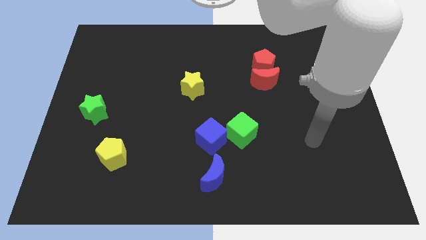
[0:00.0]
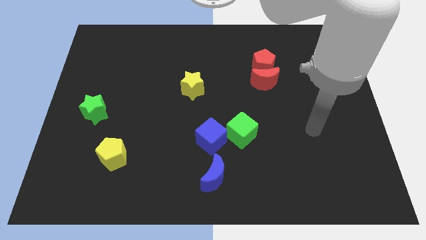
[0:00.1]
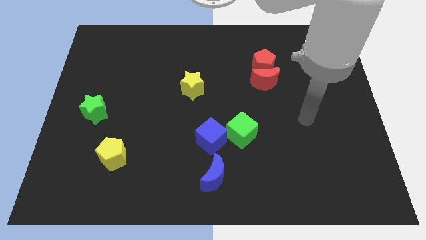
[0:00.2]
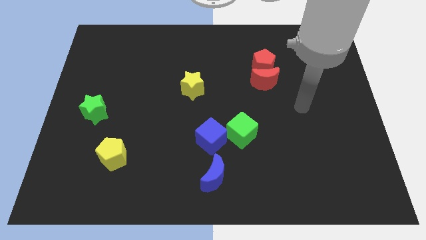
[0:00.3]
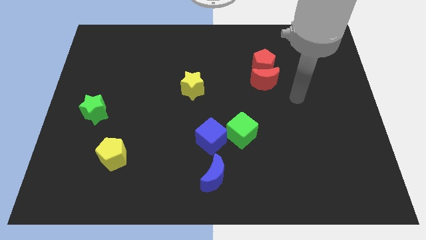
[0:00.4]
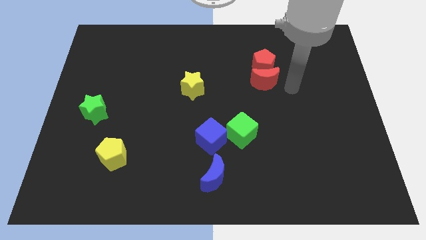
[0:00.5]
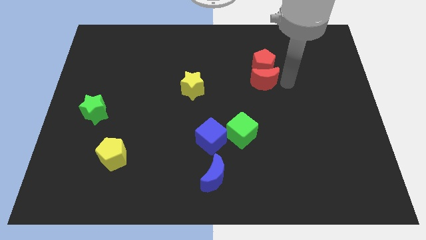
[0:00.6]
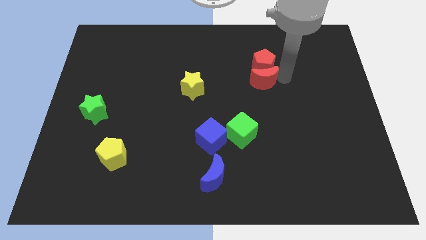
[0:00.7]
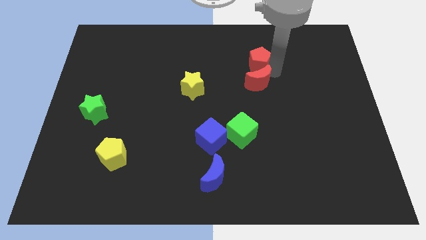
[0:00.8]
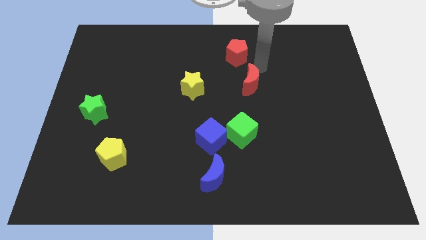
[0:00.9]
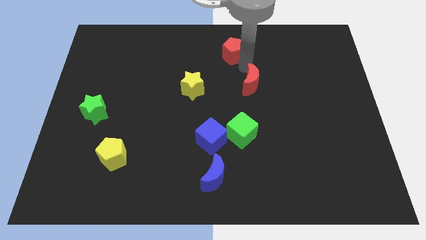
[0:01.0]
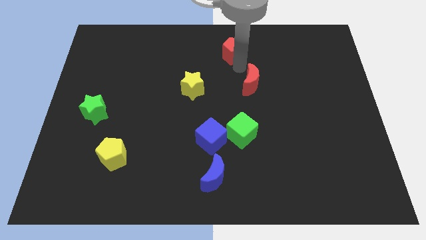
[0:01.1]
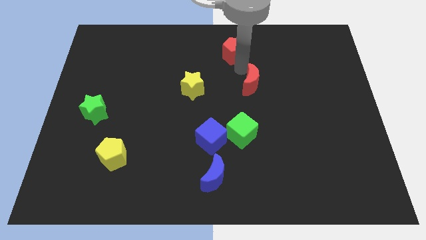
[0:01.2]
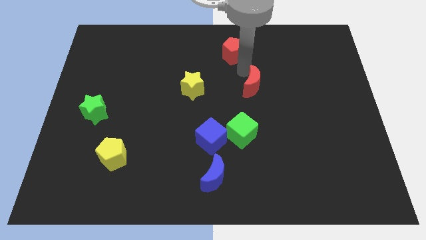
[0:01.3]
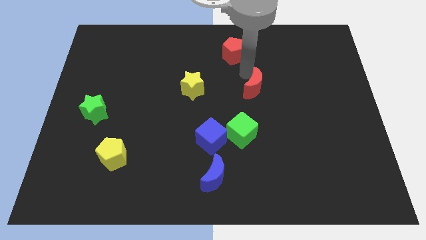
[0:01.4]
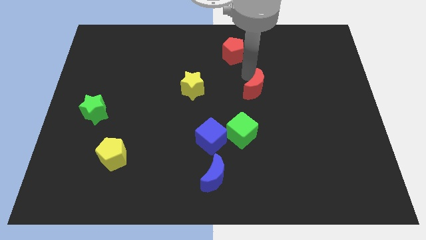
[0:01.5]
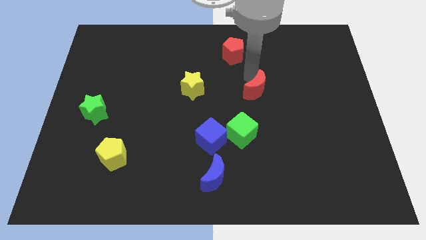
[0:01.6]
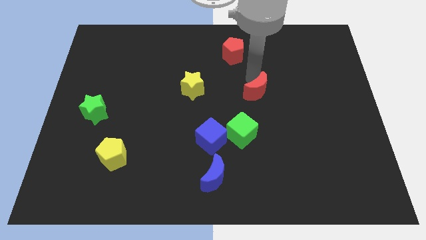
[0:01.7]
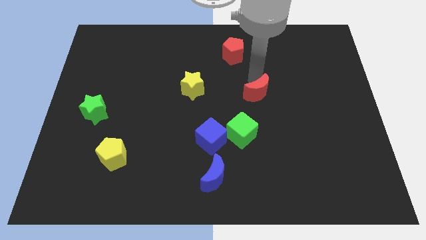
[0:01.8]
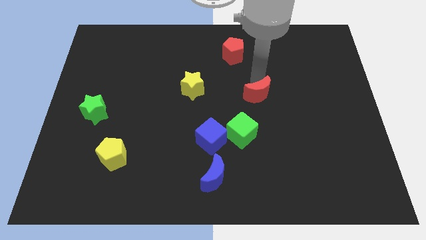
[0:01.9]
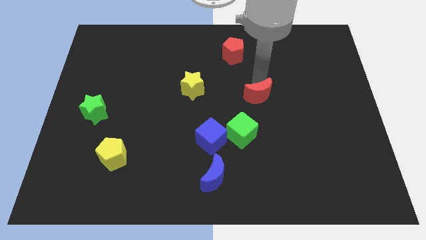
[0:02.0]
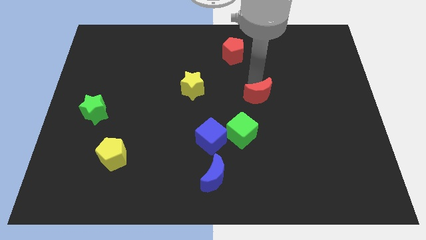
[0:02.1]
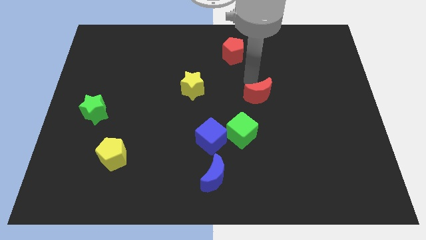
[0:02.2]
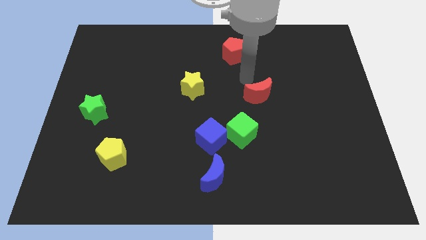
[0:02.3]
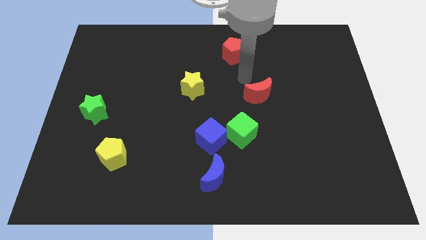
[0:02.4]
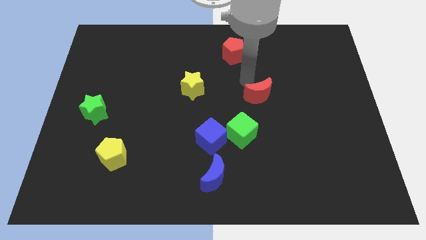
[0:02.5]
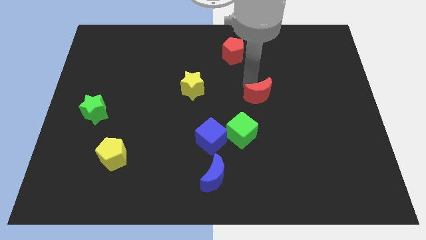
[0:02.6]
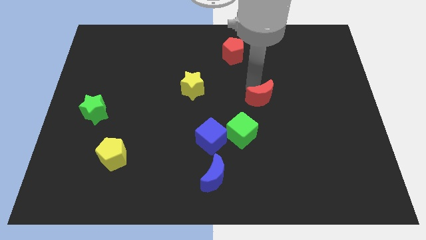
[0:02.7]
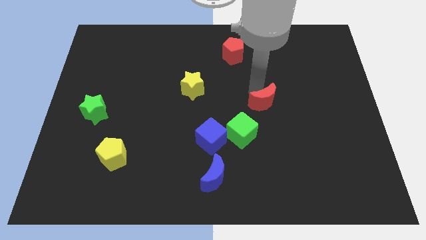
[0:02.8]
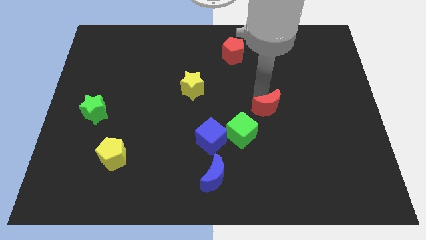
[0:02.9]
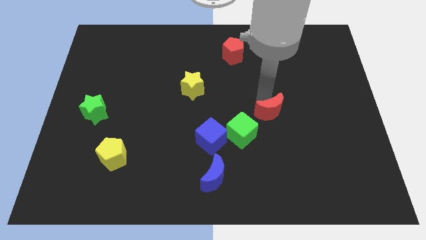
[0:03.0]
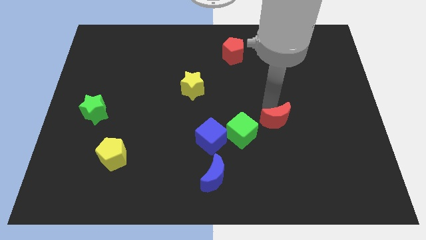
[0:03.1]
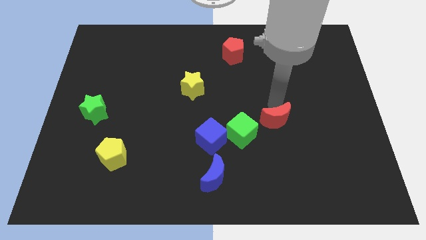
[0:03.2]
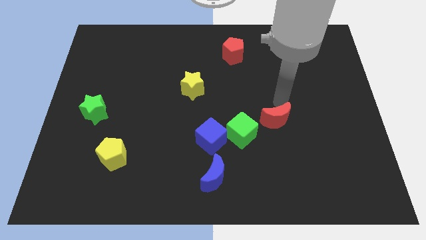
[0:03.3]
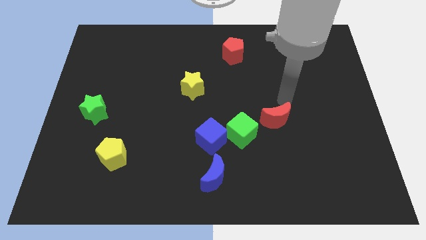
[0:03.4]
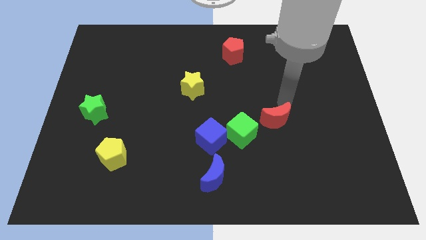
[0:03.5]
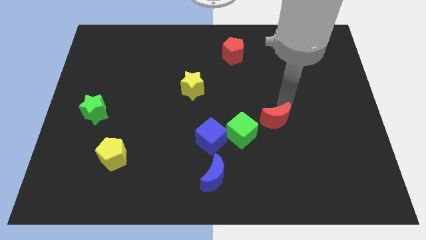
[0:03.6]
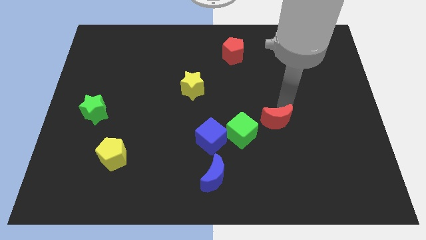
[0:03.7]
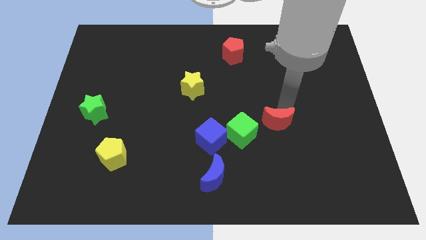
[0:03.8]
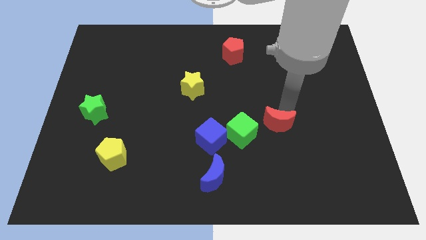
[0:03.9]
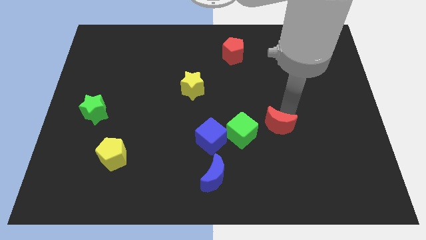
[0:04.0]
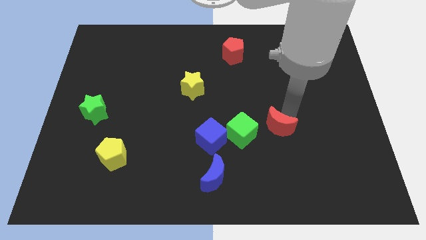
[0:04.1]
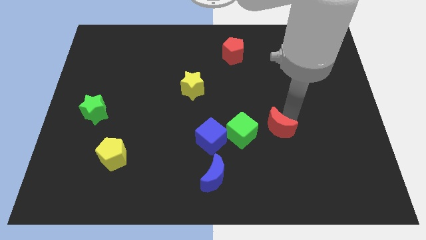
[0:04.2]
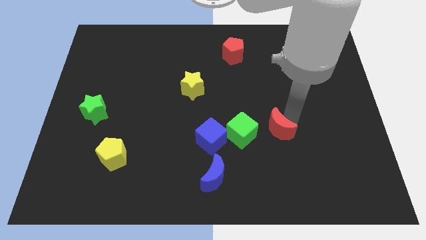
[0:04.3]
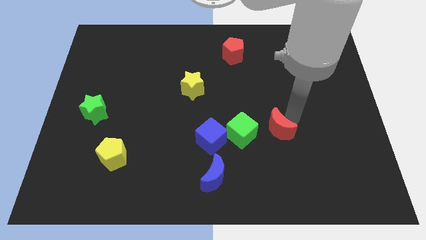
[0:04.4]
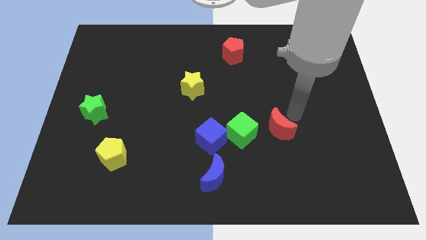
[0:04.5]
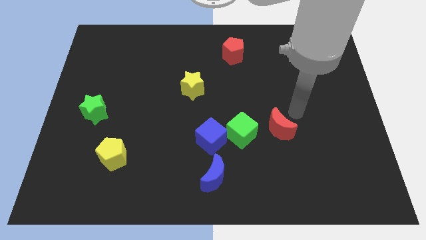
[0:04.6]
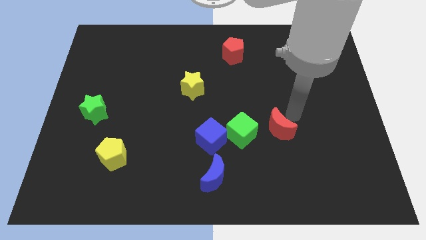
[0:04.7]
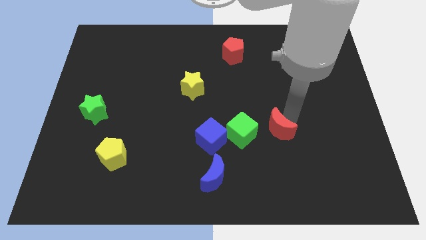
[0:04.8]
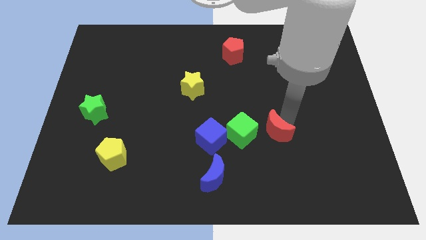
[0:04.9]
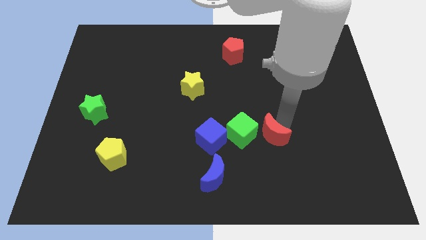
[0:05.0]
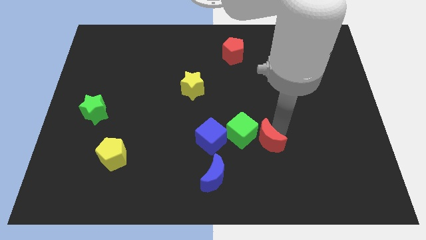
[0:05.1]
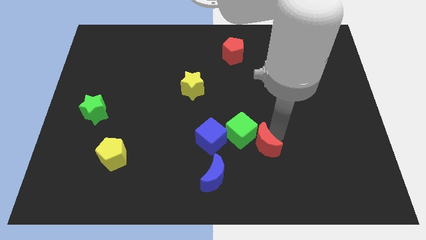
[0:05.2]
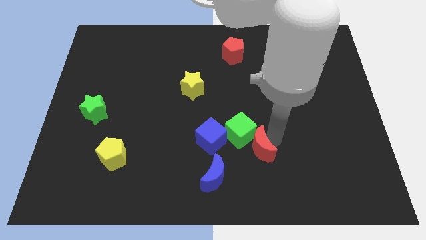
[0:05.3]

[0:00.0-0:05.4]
slide the red moon to the bottom side of the green cube

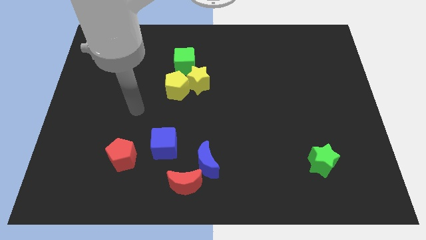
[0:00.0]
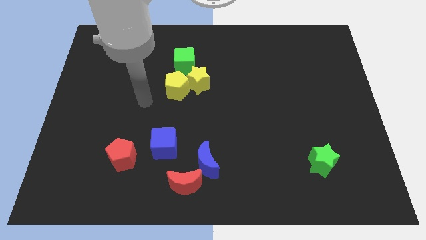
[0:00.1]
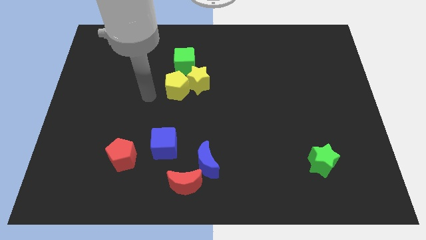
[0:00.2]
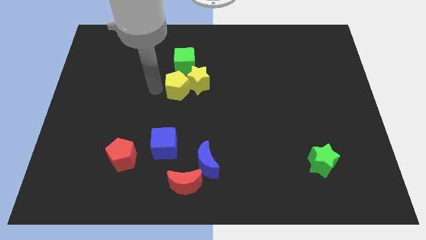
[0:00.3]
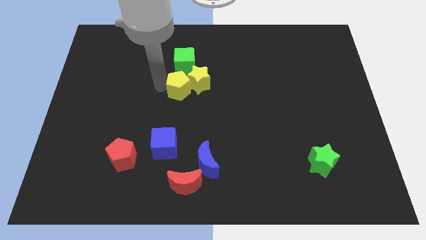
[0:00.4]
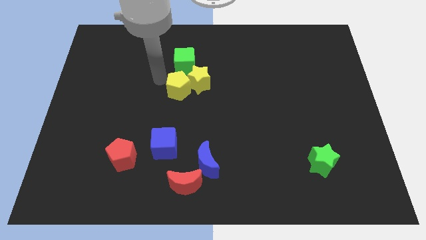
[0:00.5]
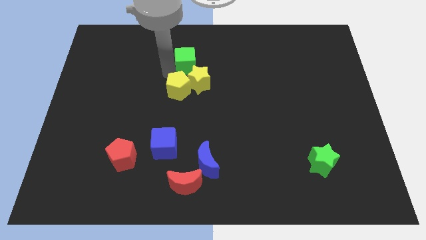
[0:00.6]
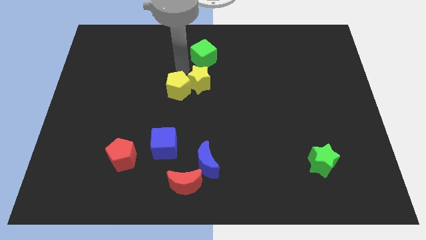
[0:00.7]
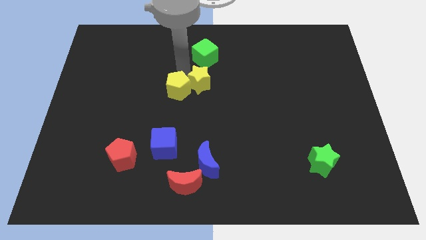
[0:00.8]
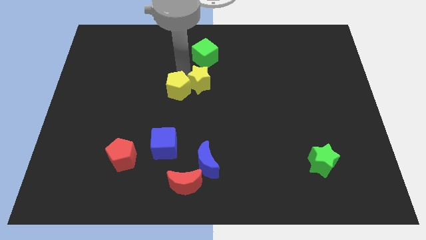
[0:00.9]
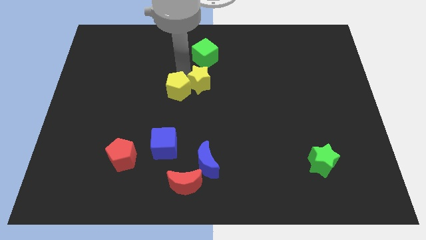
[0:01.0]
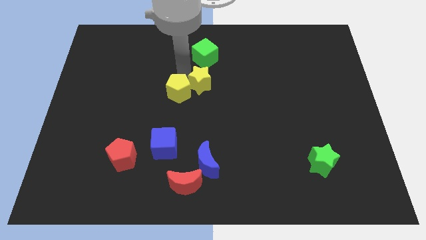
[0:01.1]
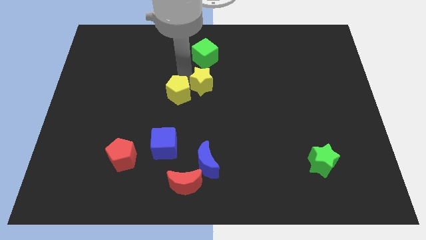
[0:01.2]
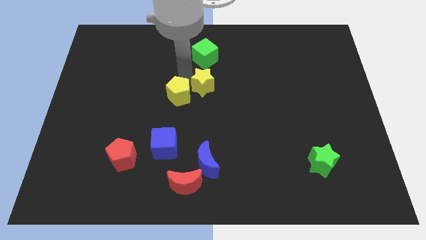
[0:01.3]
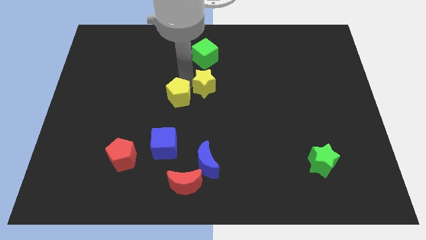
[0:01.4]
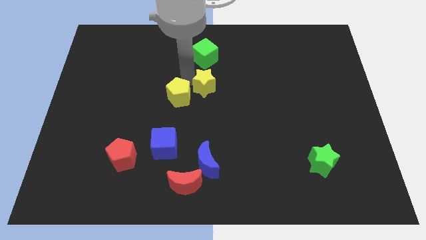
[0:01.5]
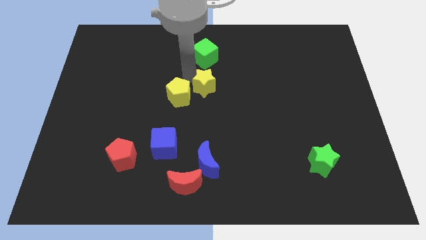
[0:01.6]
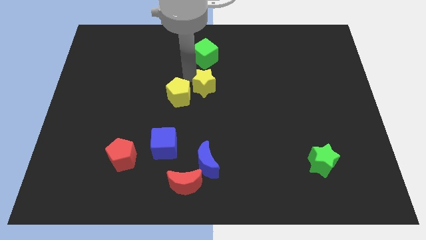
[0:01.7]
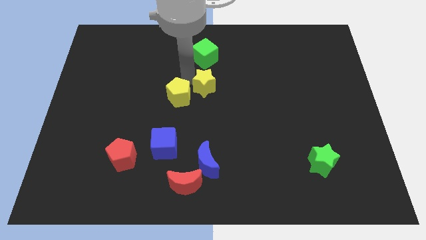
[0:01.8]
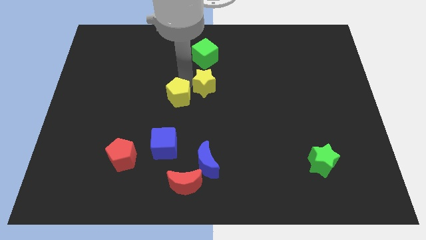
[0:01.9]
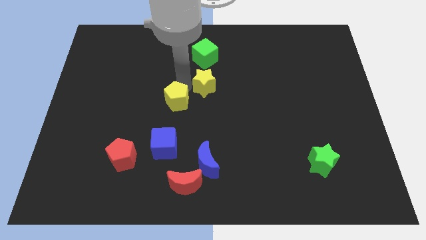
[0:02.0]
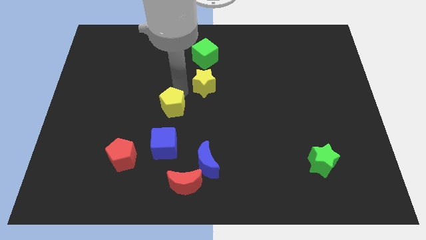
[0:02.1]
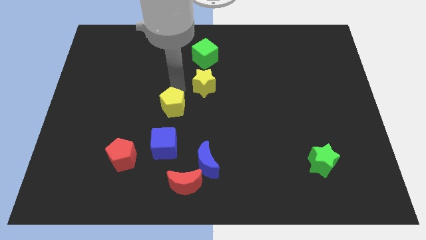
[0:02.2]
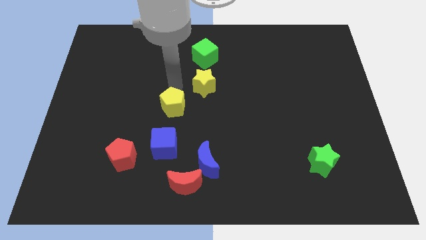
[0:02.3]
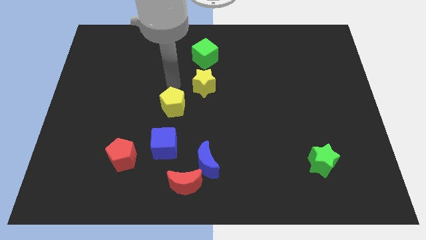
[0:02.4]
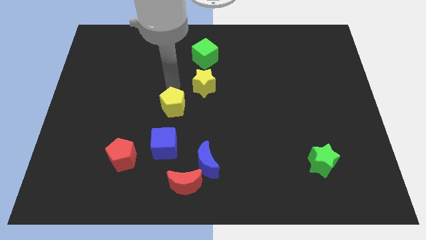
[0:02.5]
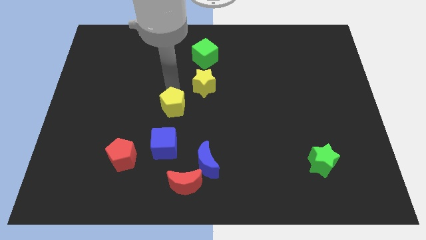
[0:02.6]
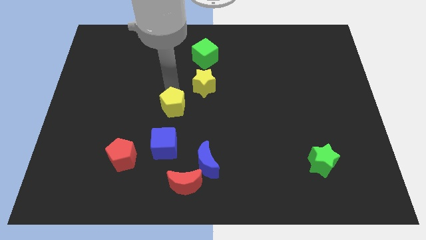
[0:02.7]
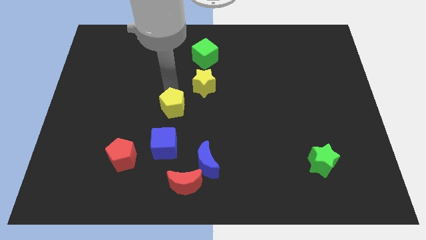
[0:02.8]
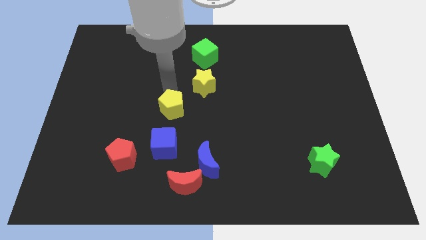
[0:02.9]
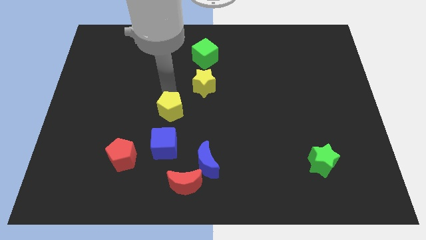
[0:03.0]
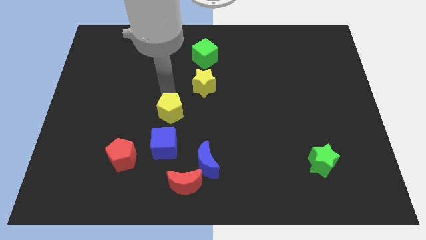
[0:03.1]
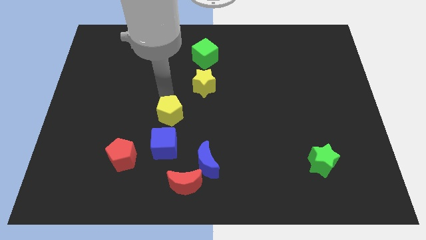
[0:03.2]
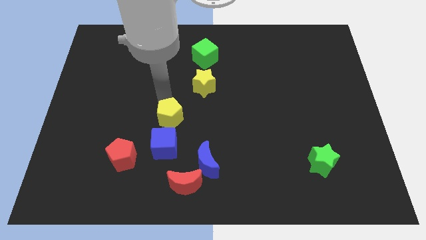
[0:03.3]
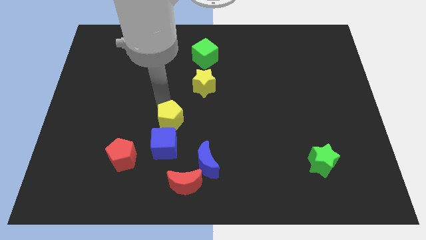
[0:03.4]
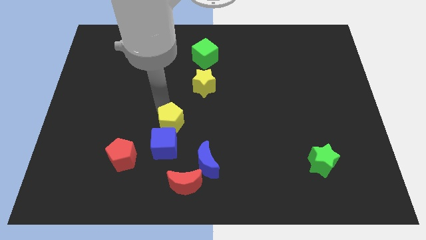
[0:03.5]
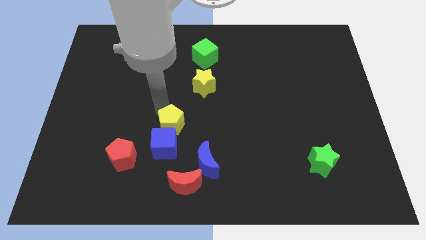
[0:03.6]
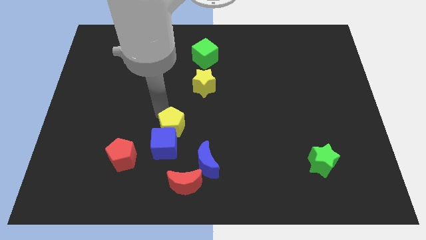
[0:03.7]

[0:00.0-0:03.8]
slide the yellow pentagon to the top of the red moon
